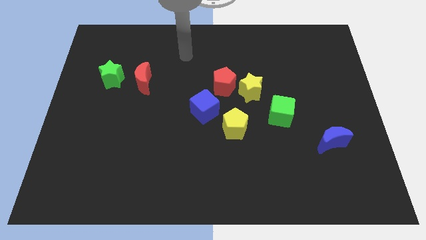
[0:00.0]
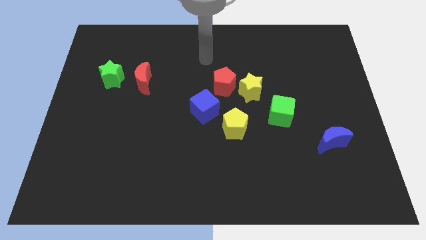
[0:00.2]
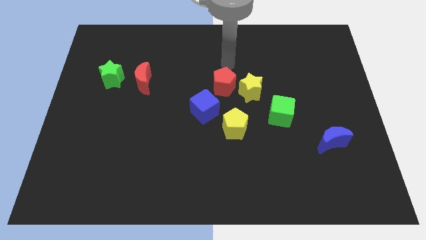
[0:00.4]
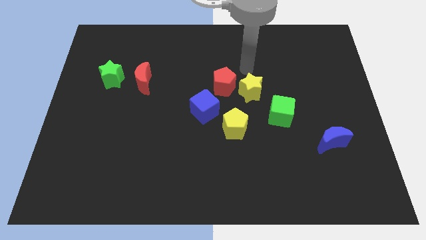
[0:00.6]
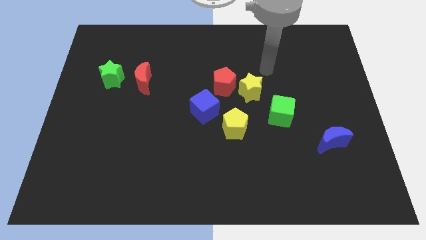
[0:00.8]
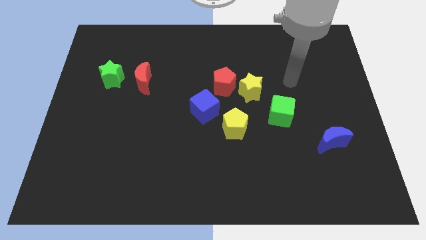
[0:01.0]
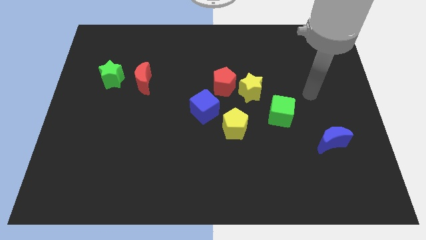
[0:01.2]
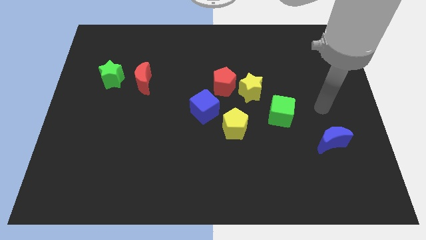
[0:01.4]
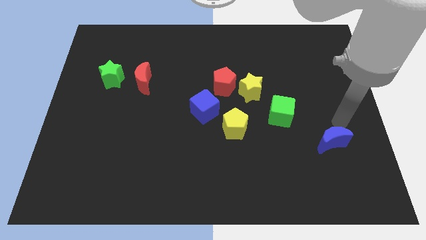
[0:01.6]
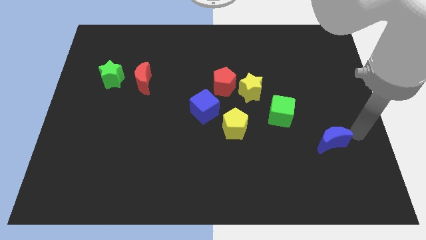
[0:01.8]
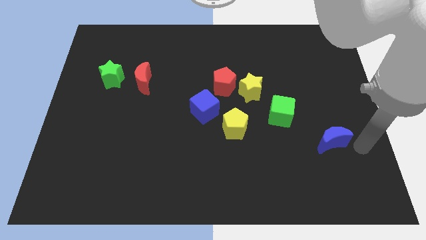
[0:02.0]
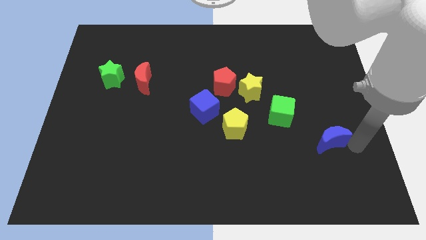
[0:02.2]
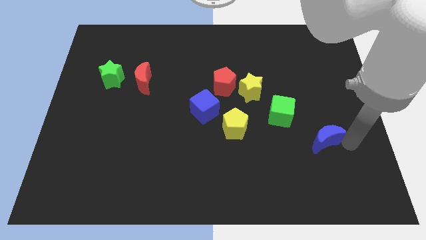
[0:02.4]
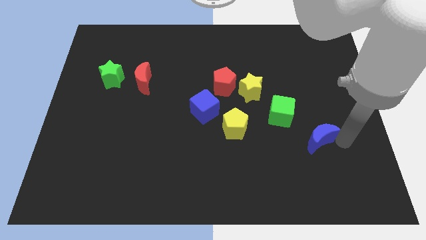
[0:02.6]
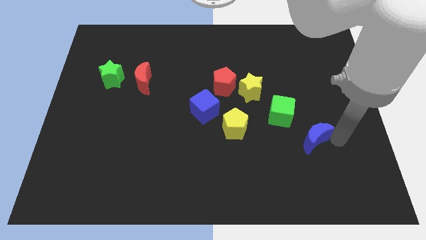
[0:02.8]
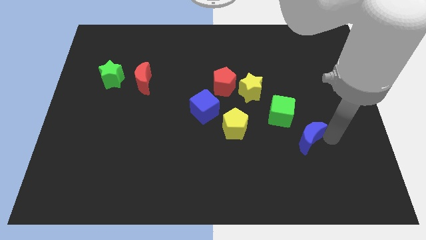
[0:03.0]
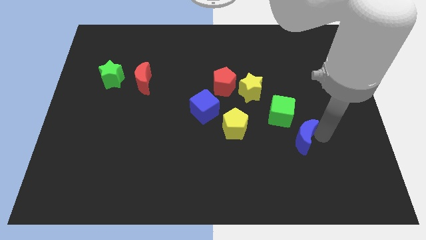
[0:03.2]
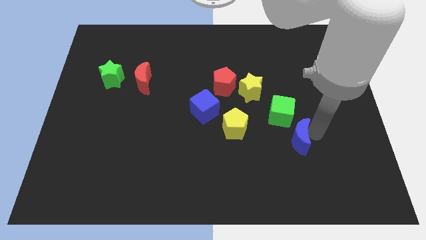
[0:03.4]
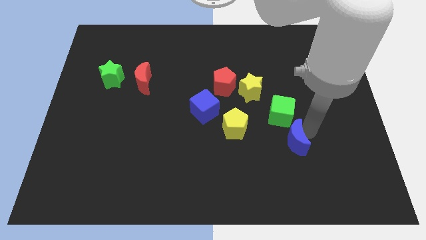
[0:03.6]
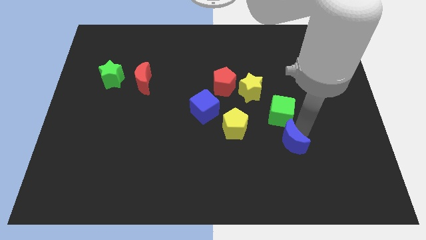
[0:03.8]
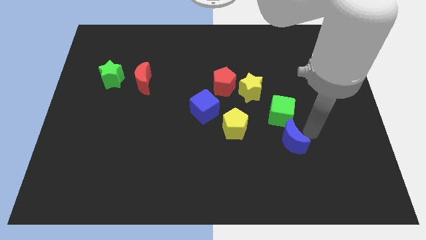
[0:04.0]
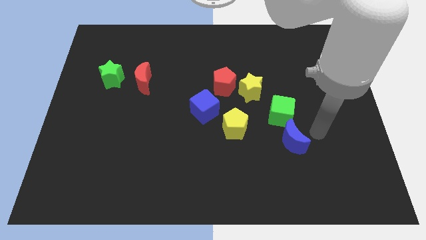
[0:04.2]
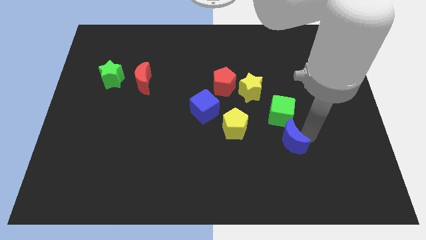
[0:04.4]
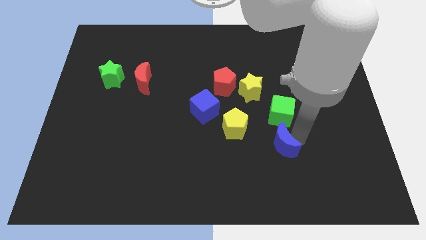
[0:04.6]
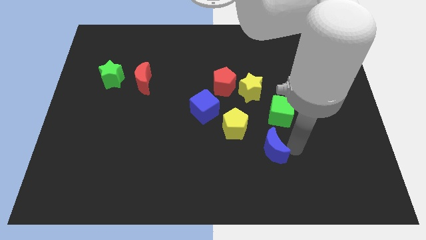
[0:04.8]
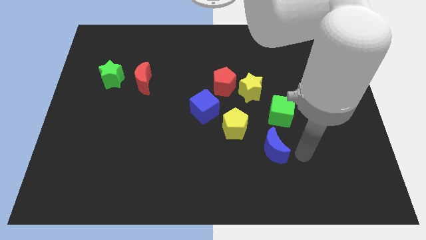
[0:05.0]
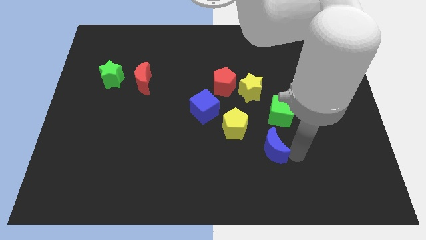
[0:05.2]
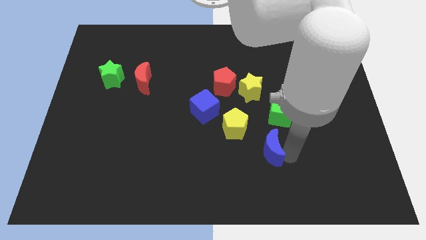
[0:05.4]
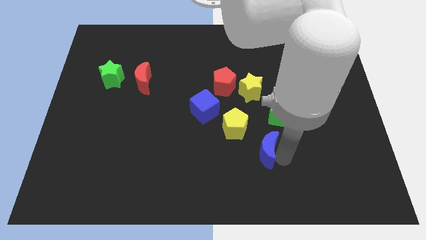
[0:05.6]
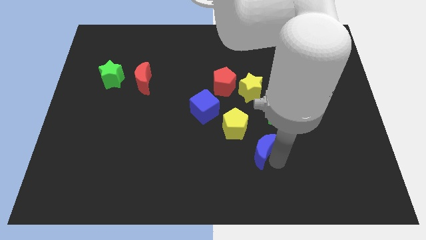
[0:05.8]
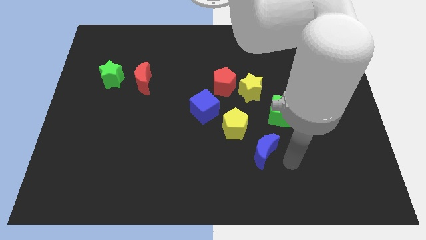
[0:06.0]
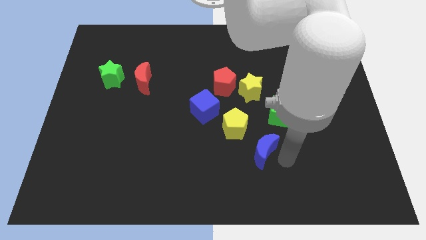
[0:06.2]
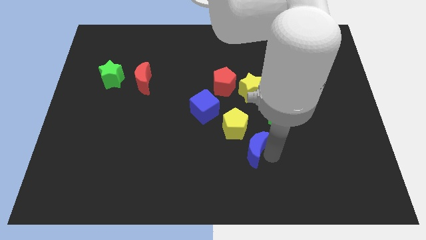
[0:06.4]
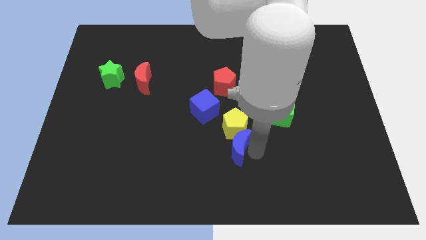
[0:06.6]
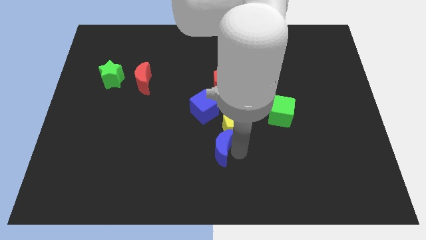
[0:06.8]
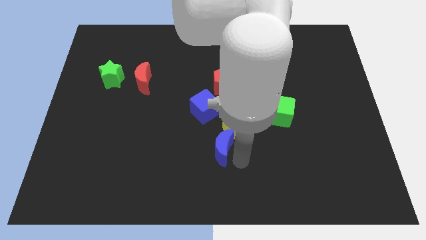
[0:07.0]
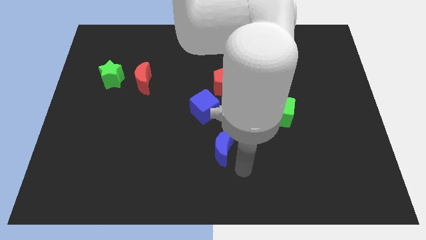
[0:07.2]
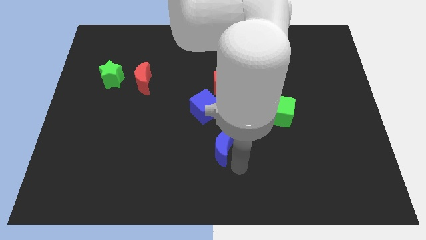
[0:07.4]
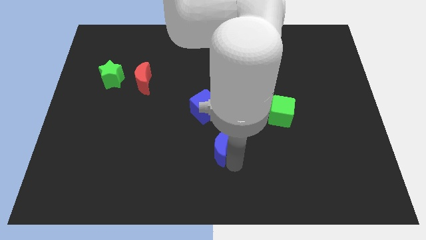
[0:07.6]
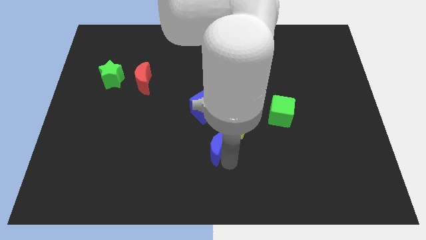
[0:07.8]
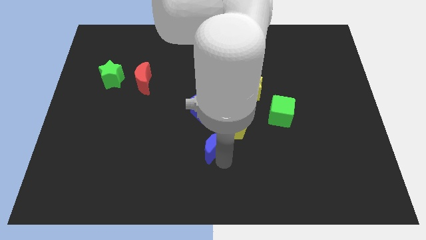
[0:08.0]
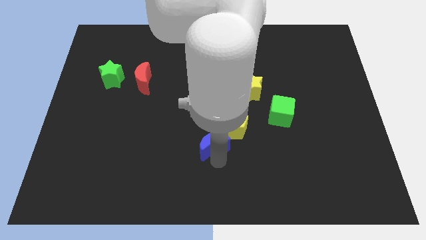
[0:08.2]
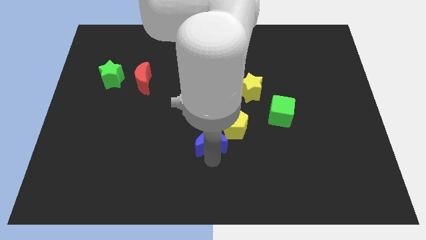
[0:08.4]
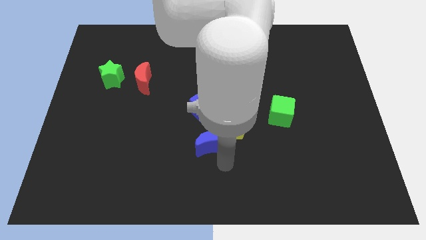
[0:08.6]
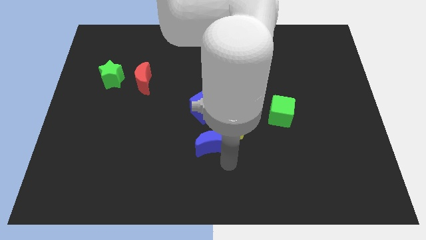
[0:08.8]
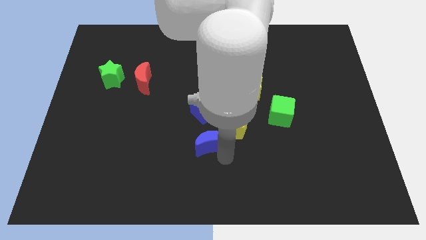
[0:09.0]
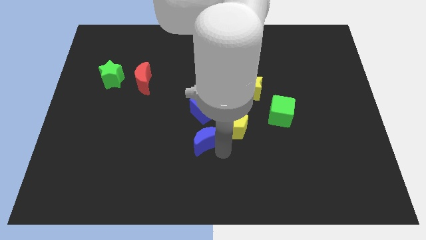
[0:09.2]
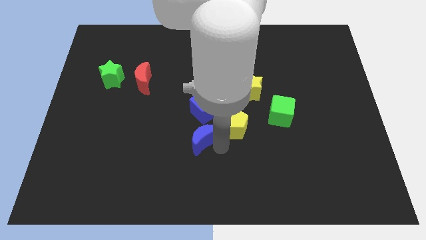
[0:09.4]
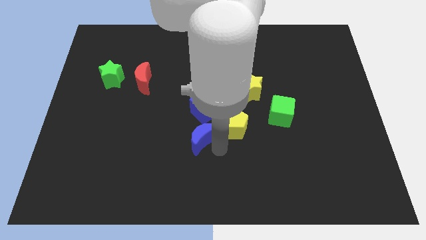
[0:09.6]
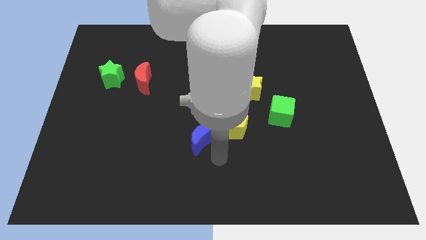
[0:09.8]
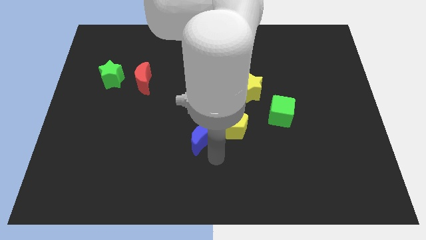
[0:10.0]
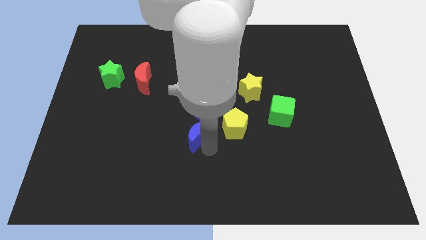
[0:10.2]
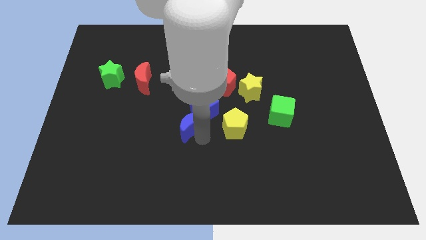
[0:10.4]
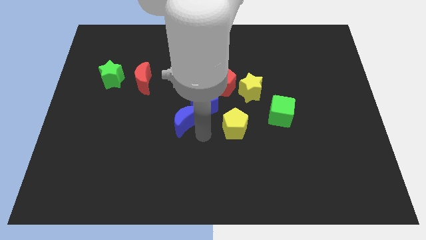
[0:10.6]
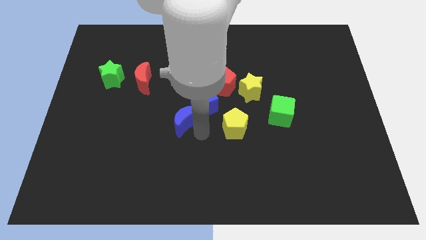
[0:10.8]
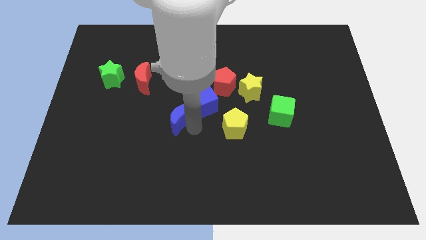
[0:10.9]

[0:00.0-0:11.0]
slide the blue moon left of the blue cube

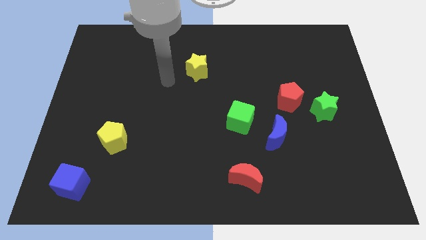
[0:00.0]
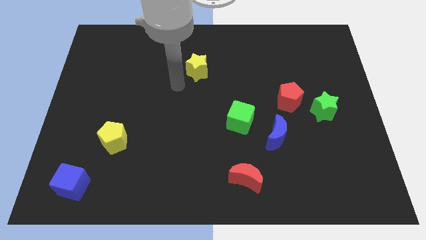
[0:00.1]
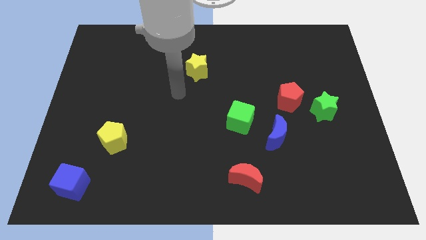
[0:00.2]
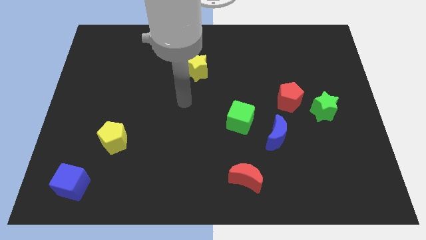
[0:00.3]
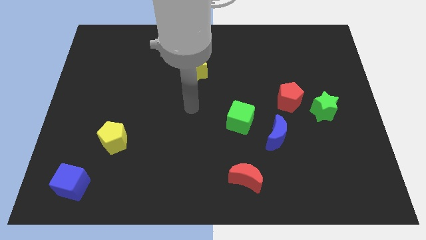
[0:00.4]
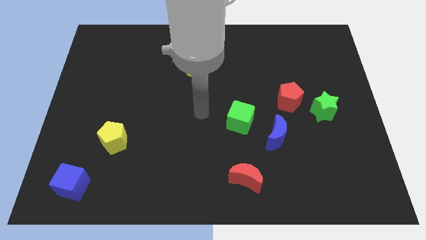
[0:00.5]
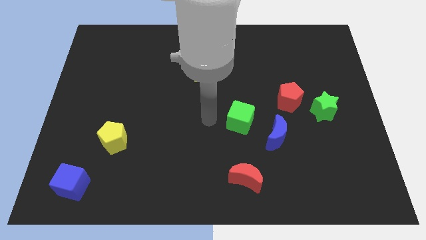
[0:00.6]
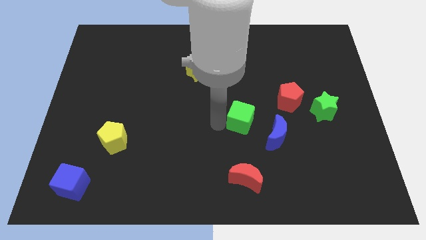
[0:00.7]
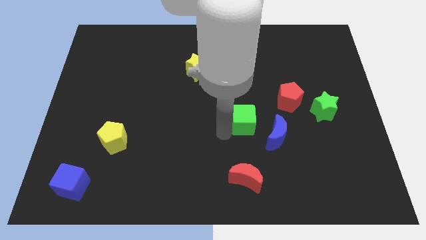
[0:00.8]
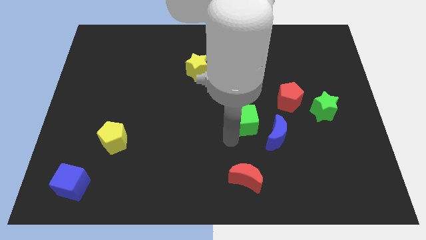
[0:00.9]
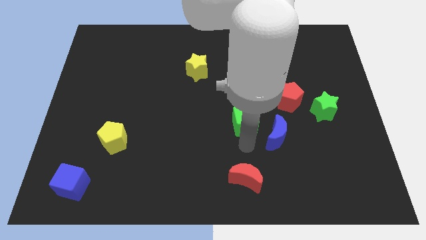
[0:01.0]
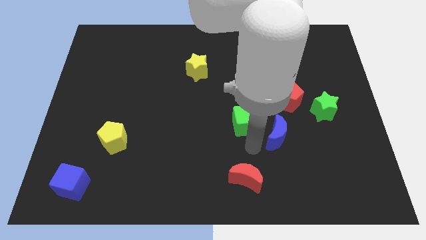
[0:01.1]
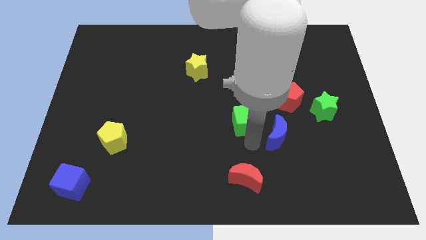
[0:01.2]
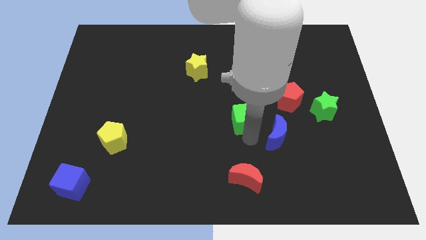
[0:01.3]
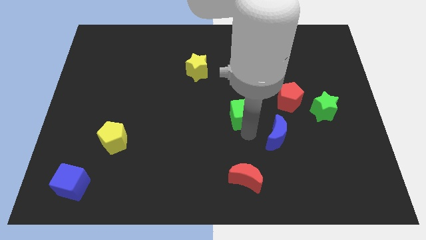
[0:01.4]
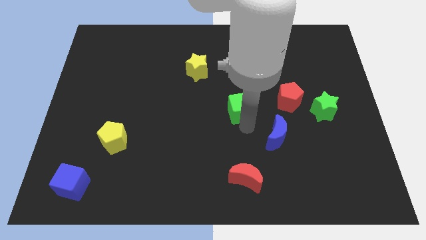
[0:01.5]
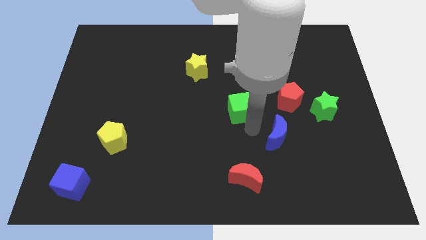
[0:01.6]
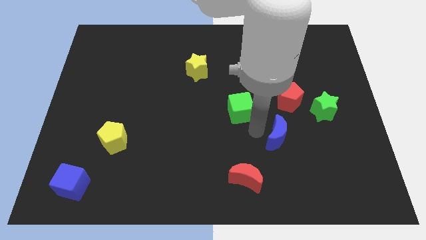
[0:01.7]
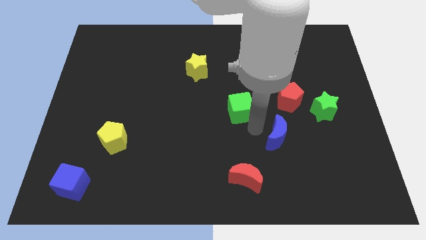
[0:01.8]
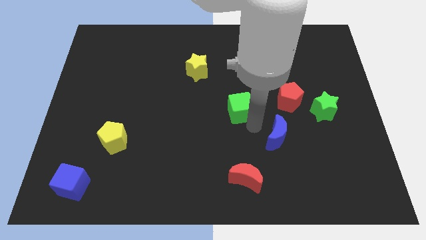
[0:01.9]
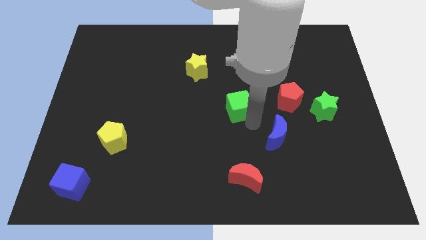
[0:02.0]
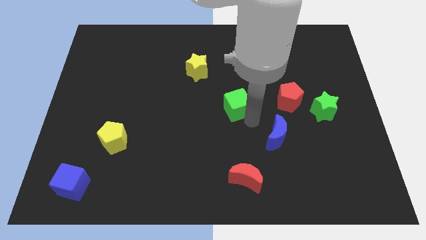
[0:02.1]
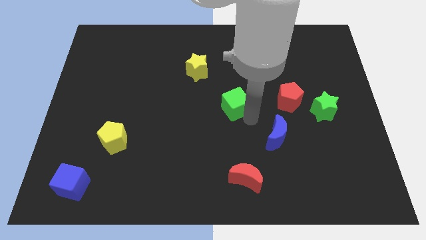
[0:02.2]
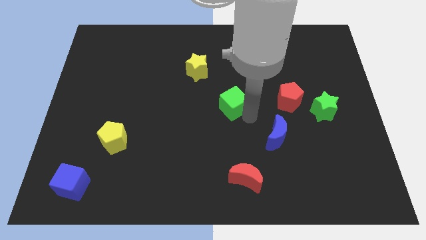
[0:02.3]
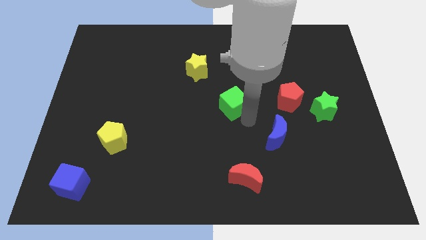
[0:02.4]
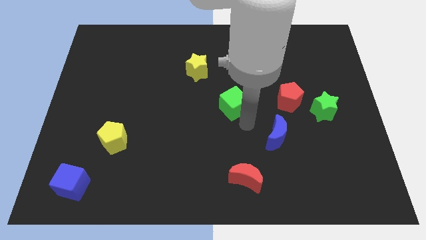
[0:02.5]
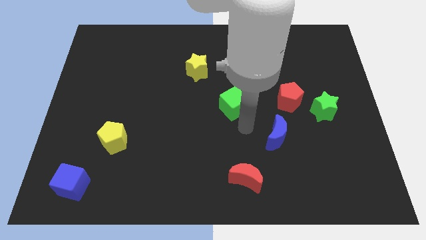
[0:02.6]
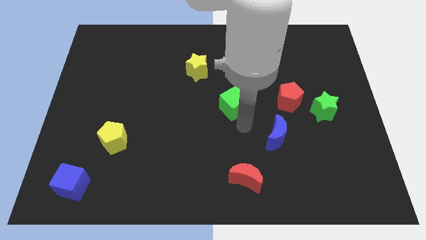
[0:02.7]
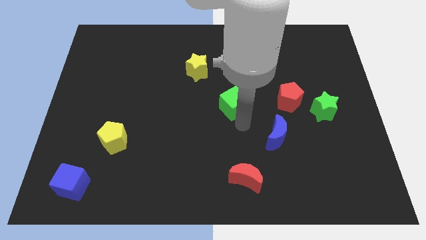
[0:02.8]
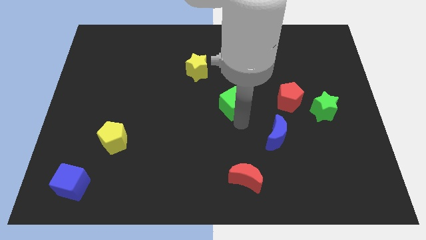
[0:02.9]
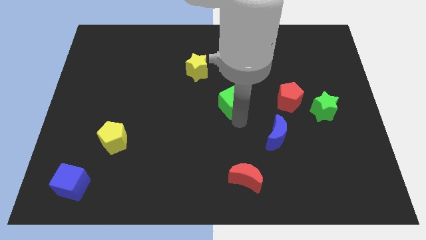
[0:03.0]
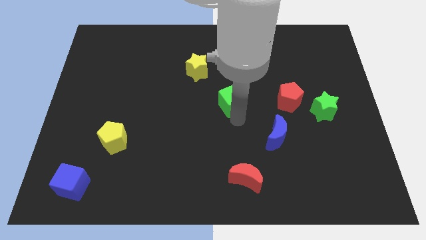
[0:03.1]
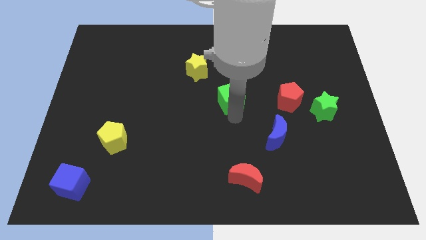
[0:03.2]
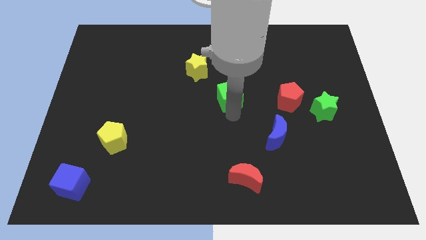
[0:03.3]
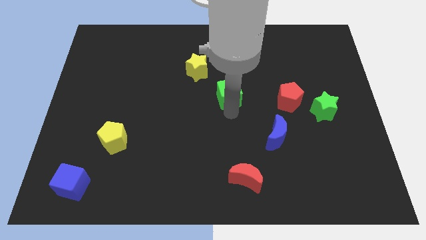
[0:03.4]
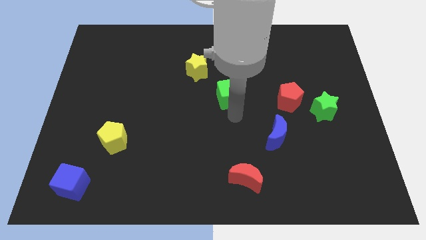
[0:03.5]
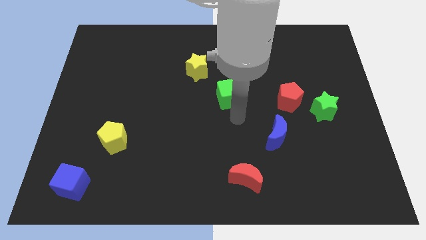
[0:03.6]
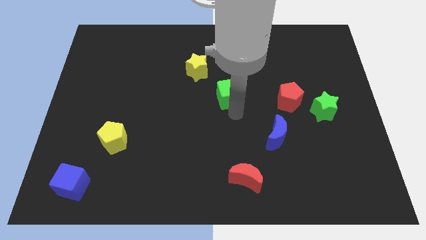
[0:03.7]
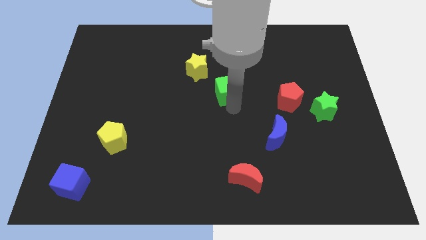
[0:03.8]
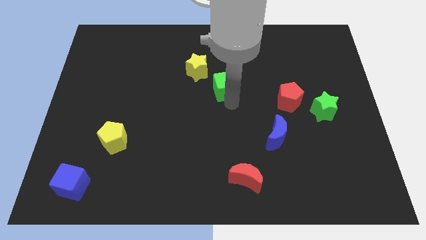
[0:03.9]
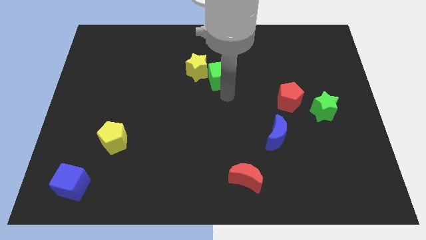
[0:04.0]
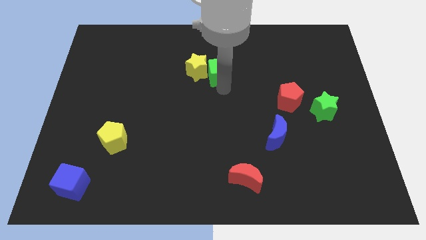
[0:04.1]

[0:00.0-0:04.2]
push the green cube to the top right side of the yellow star
